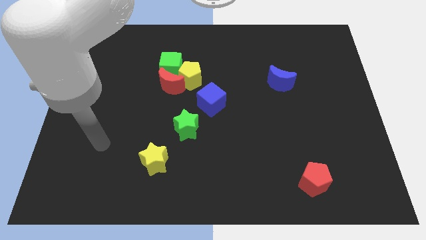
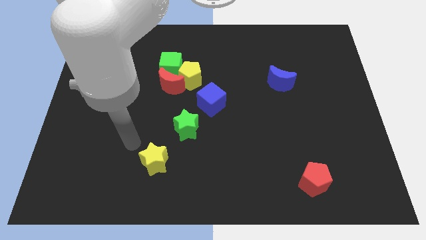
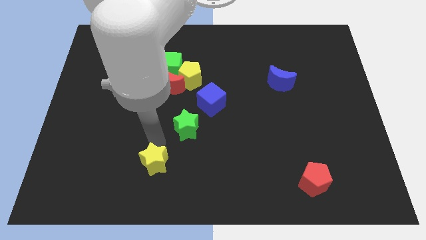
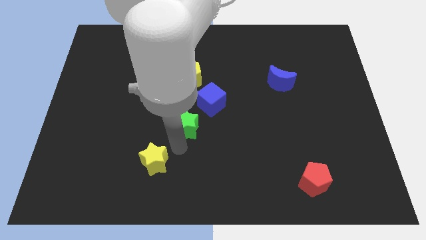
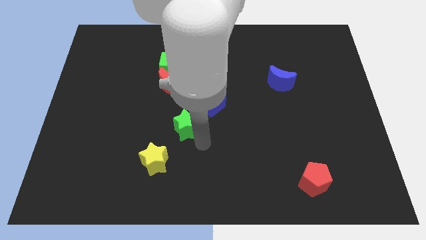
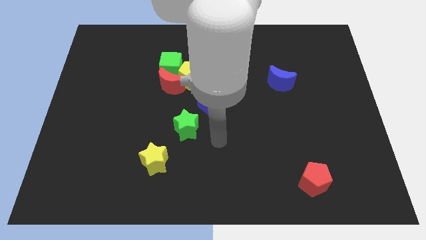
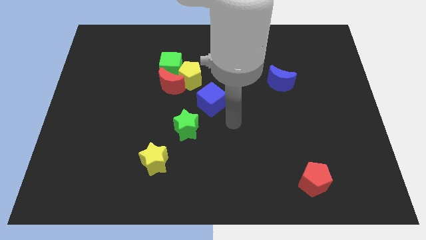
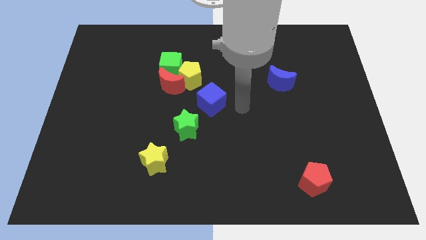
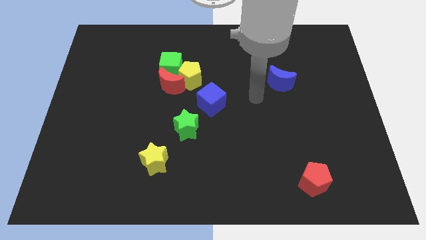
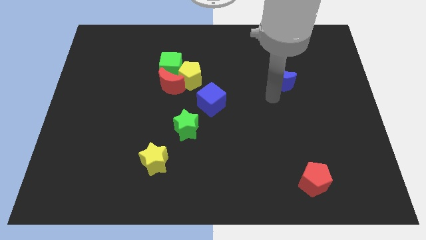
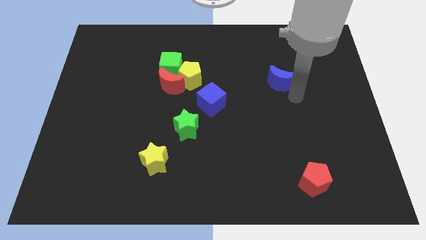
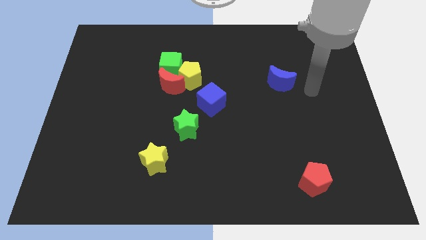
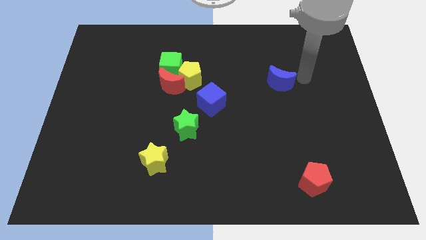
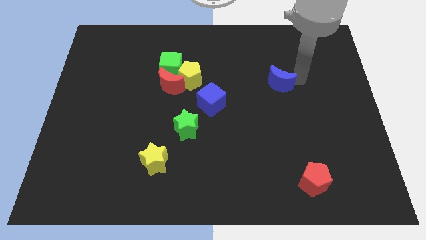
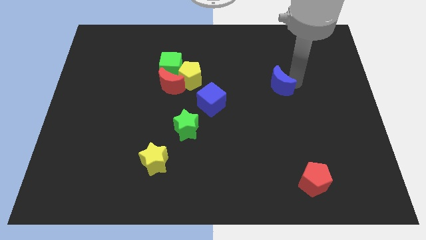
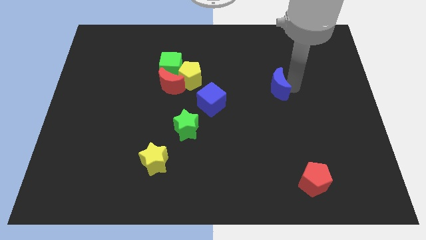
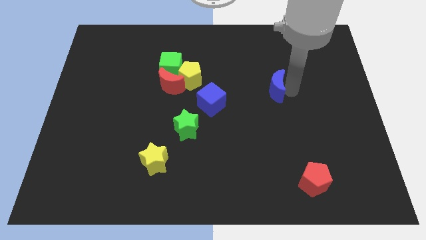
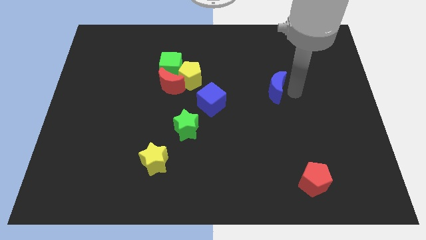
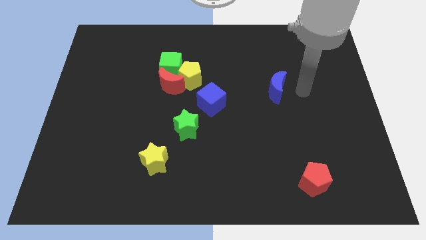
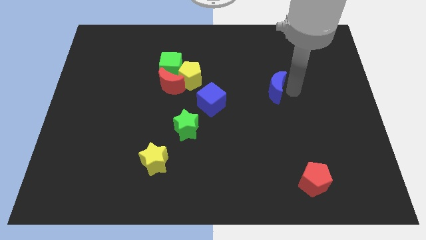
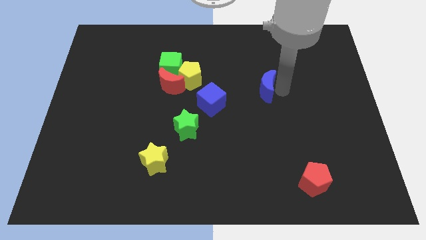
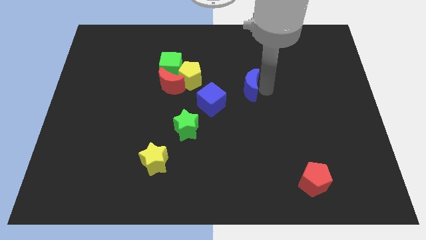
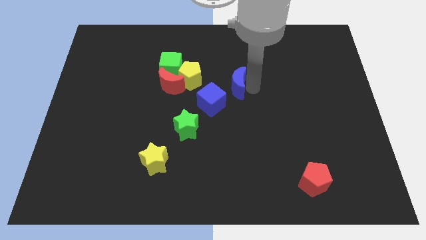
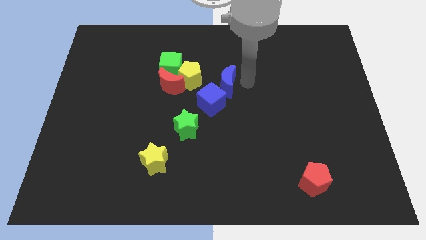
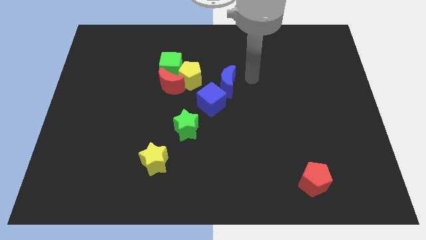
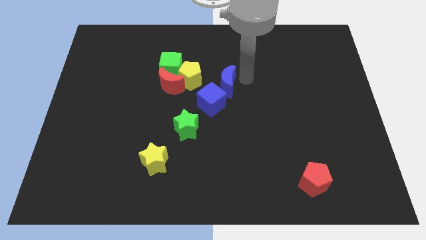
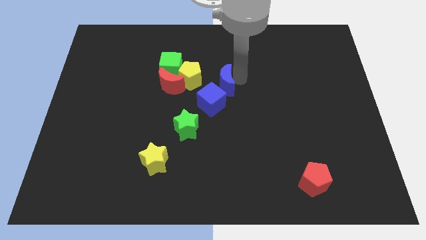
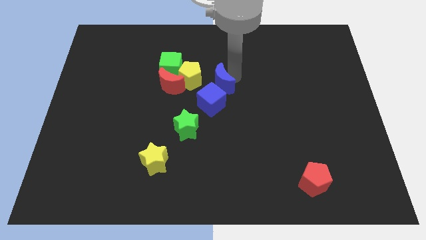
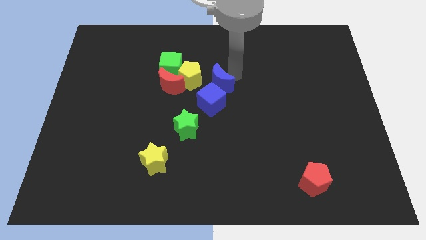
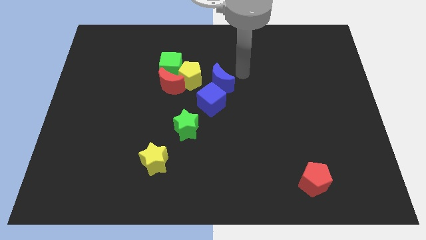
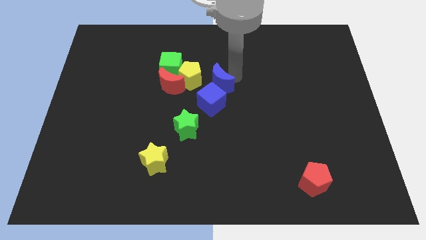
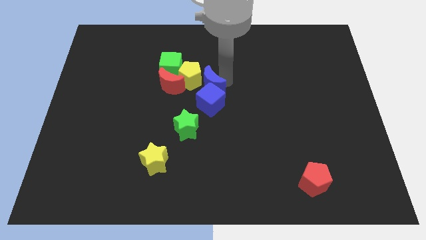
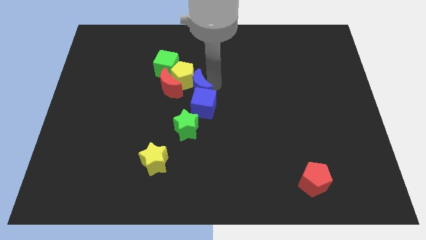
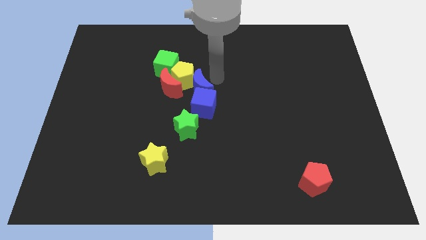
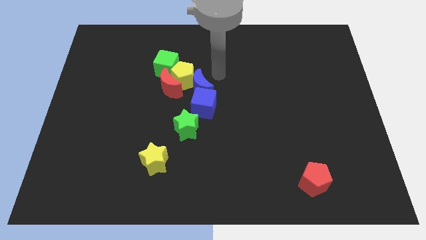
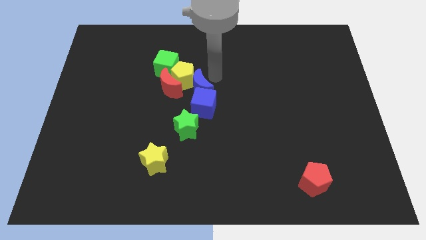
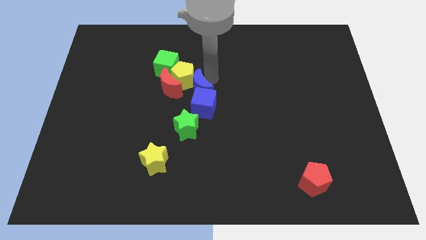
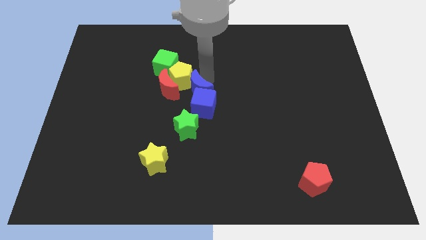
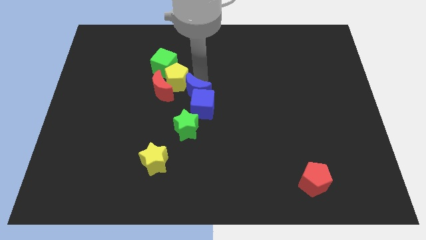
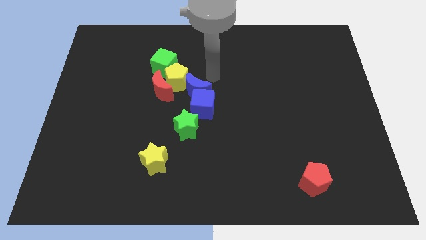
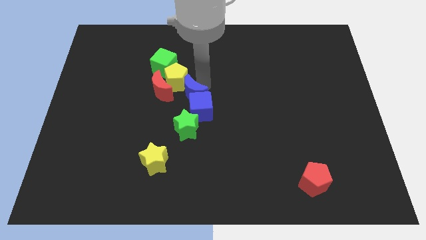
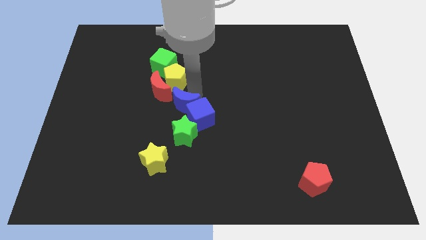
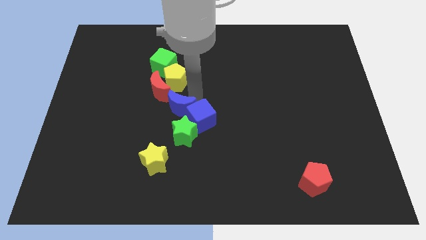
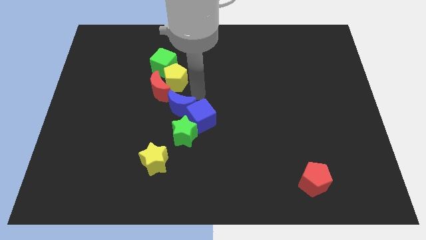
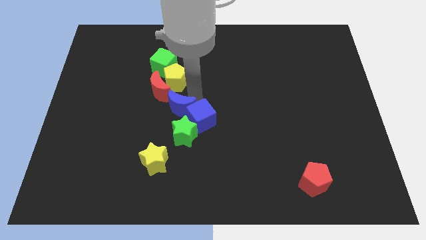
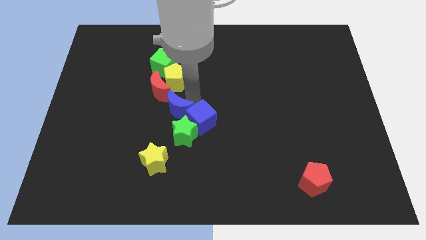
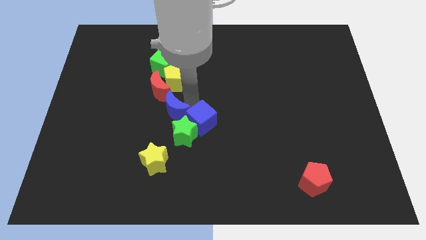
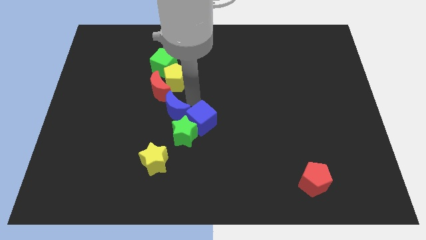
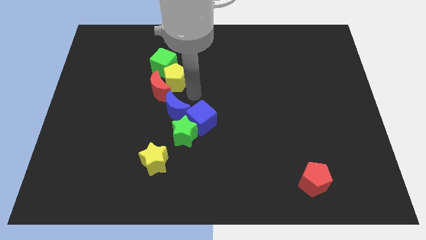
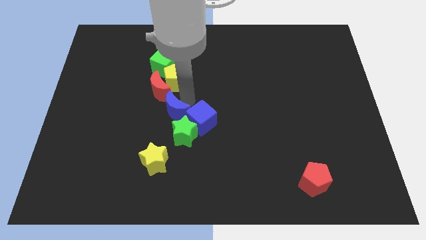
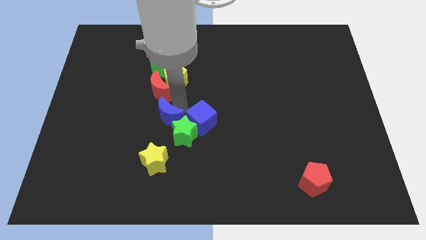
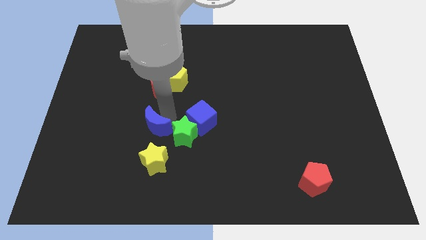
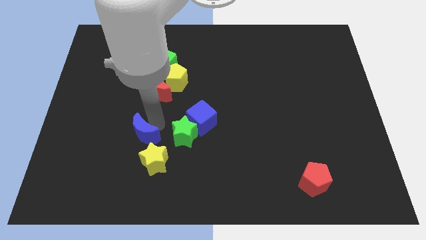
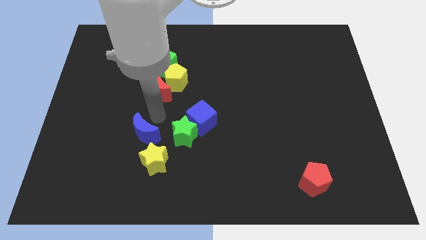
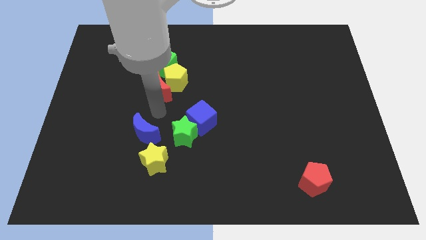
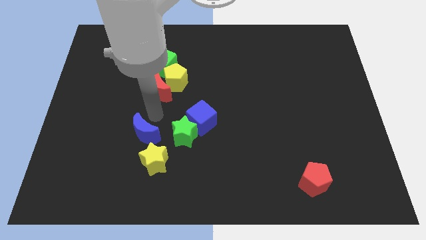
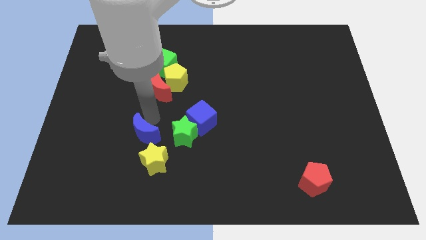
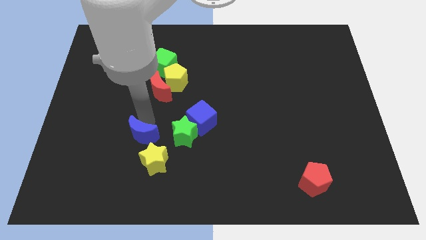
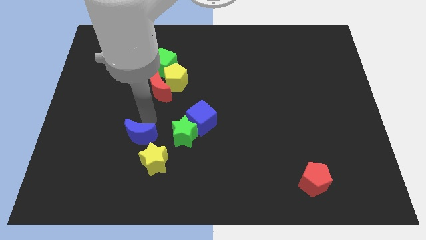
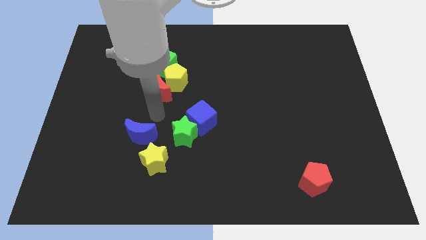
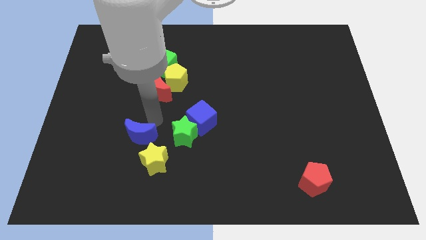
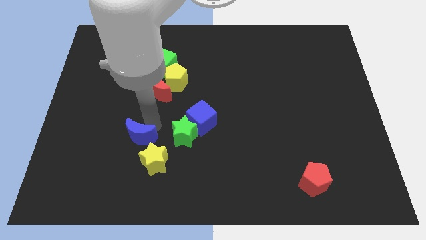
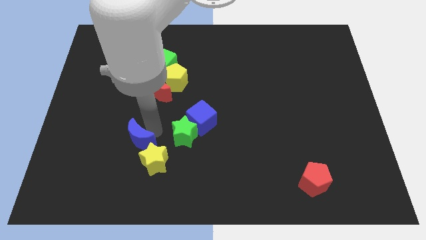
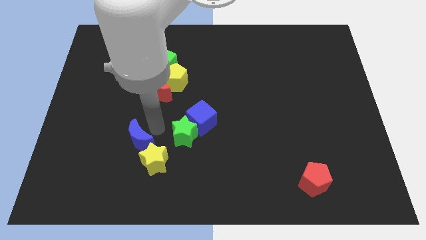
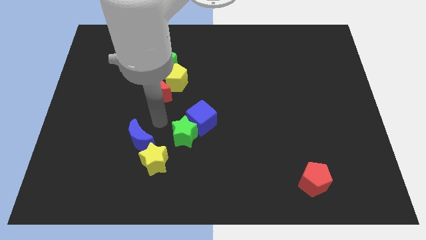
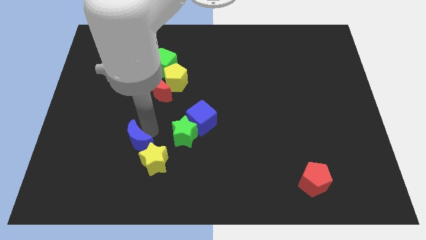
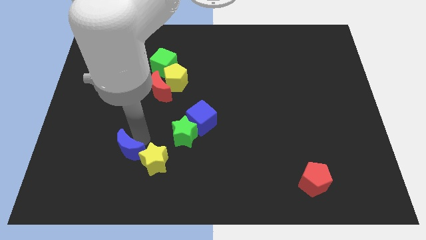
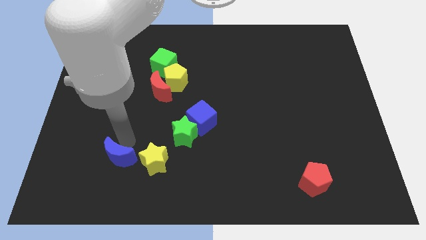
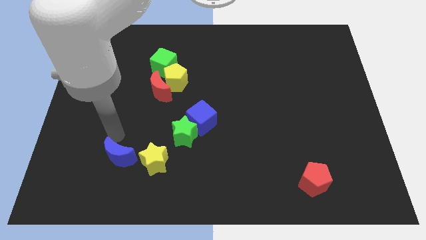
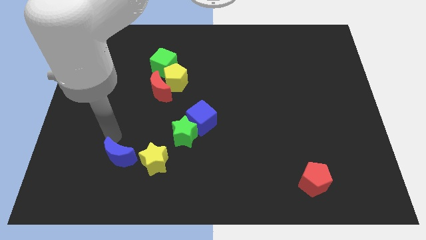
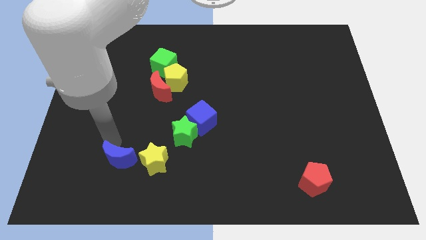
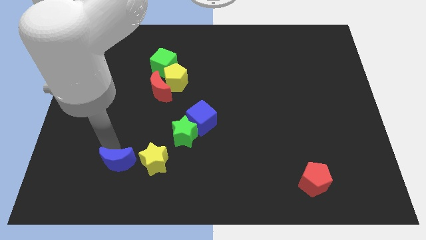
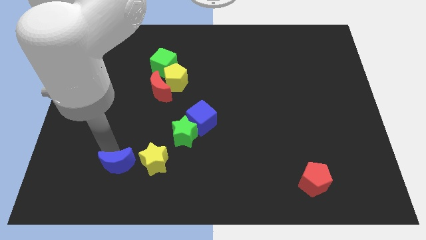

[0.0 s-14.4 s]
move the blue moon diagonally down and to the left of the yellow star
